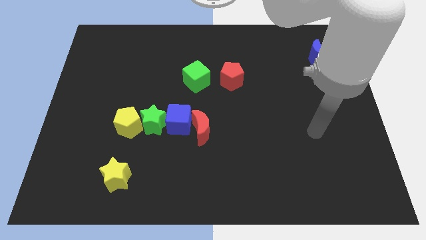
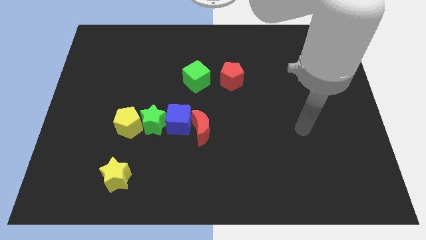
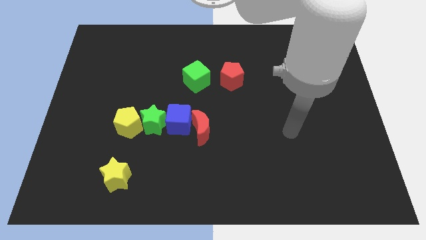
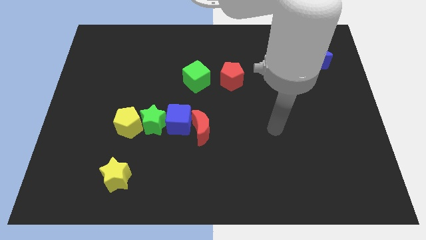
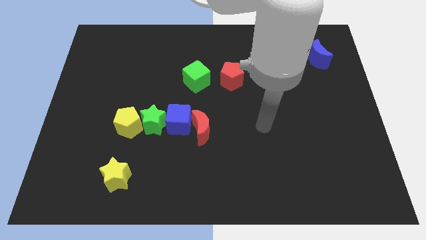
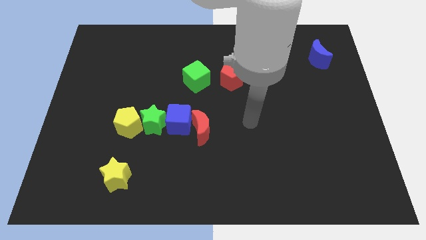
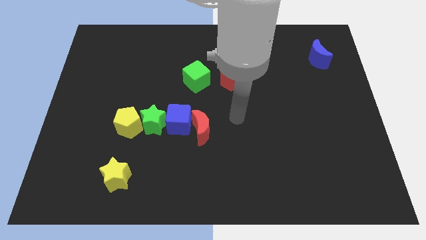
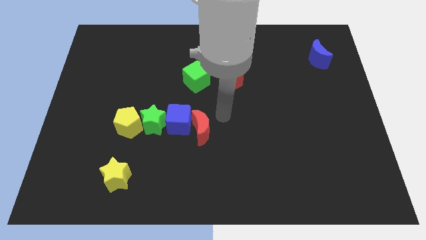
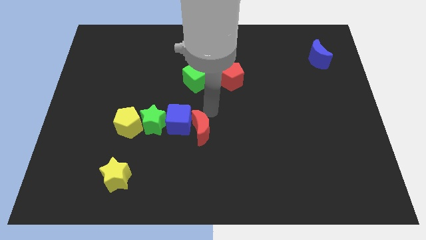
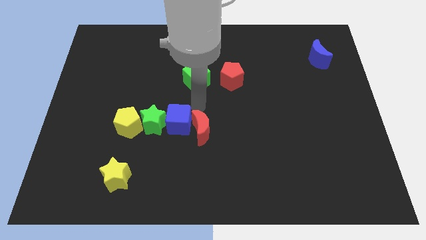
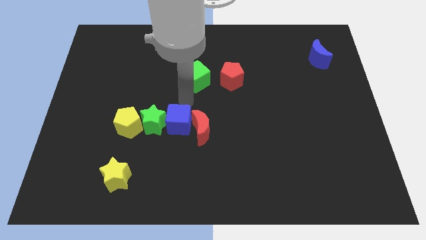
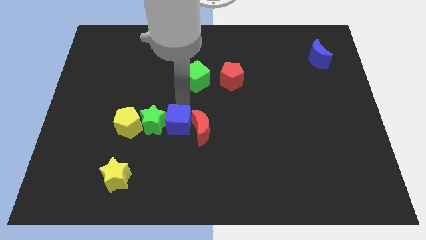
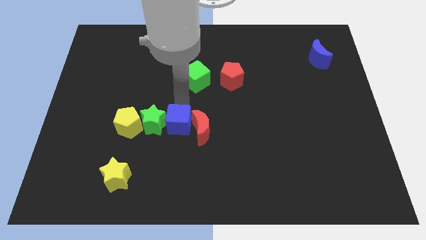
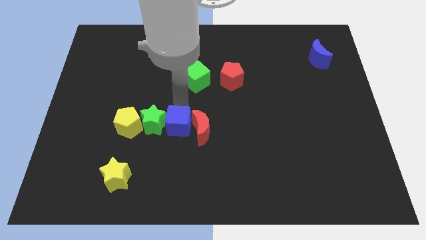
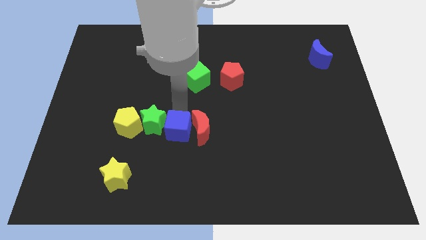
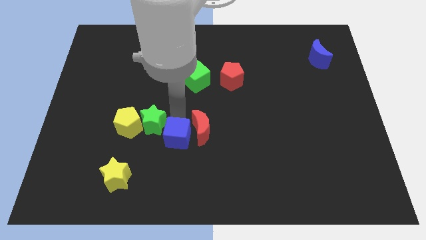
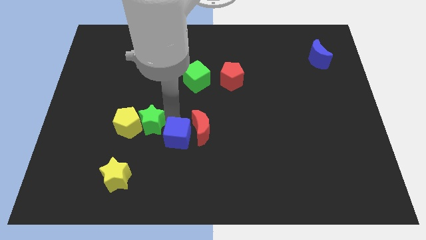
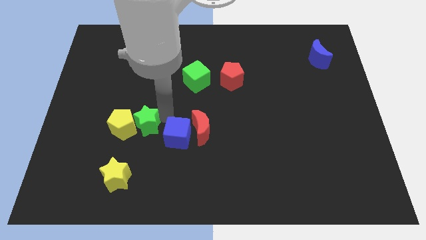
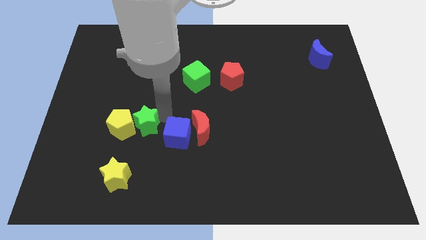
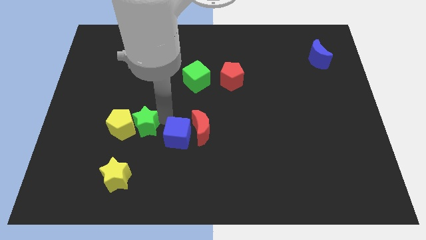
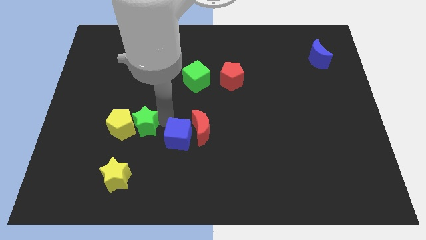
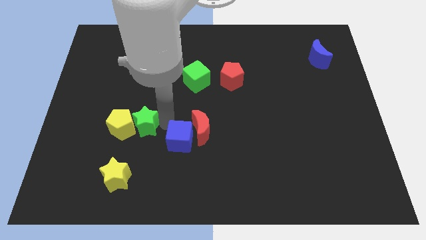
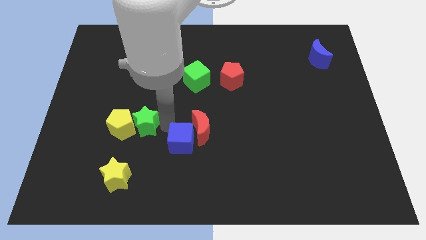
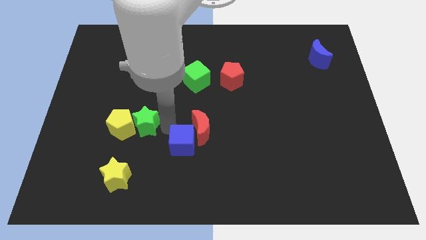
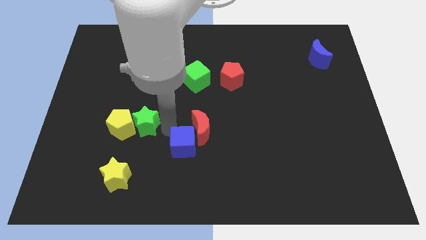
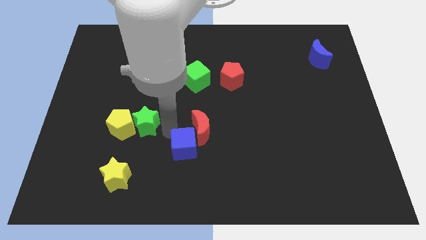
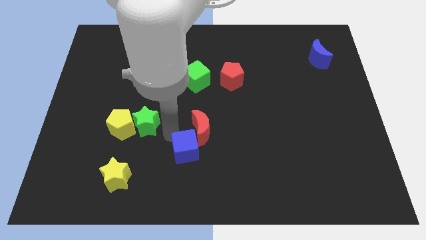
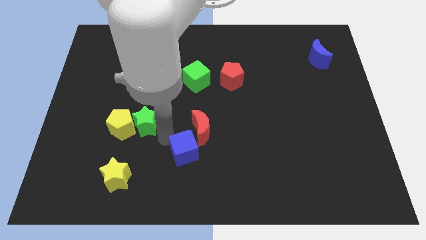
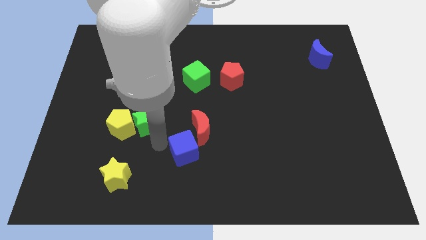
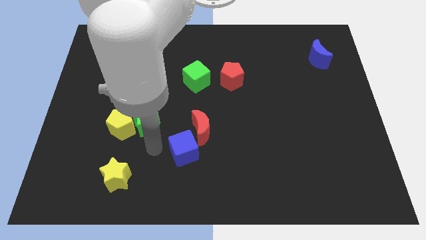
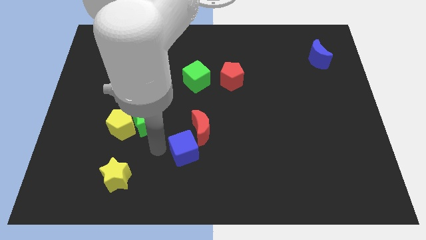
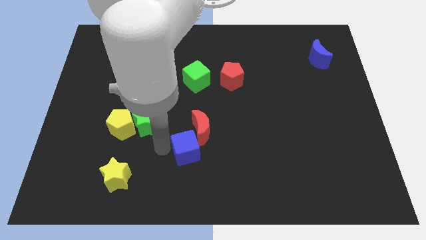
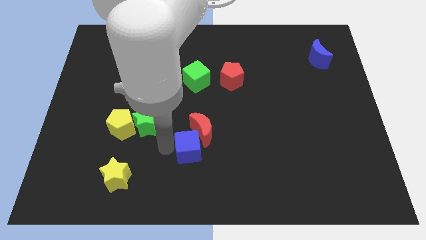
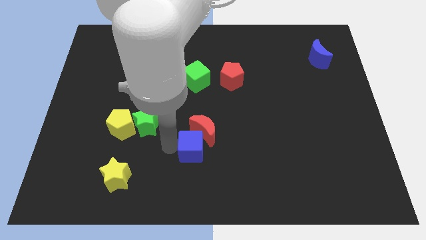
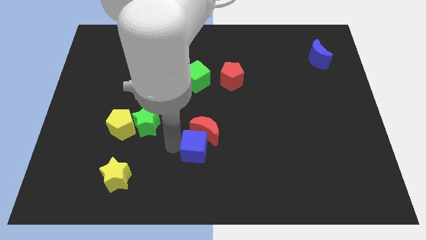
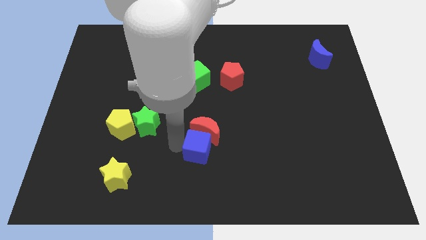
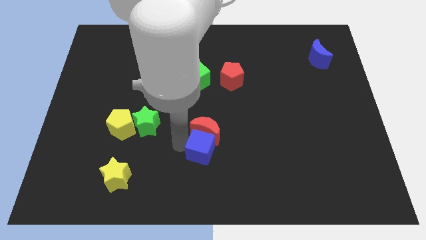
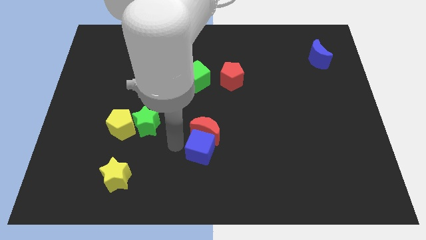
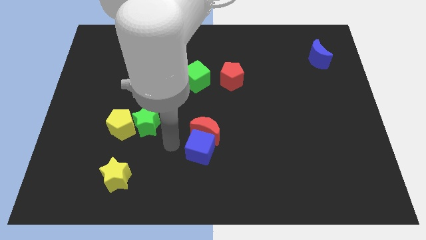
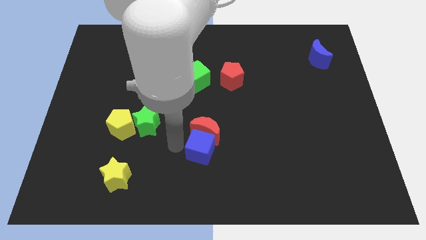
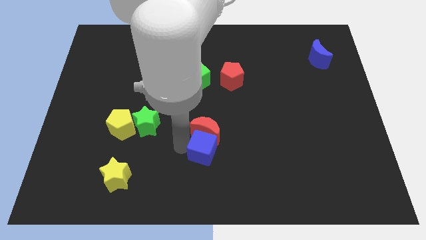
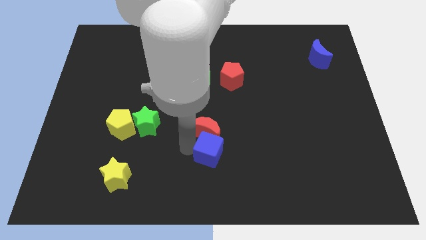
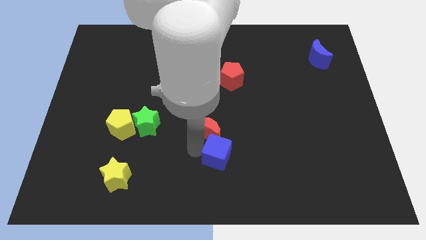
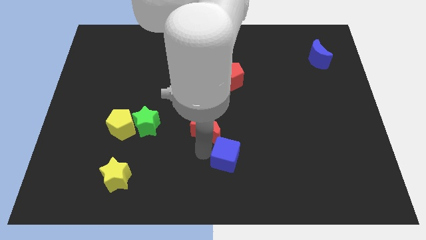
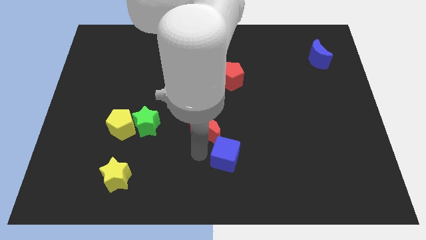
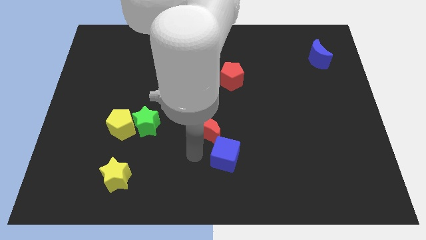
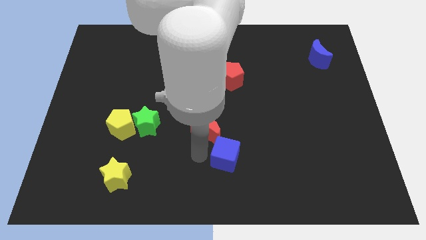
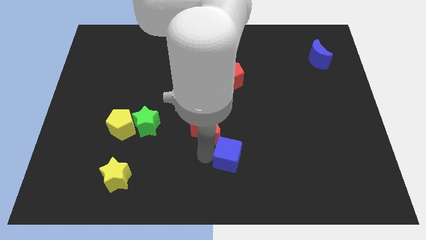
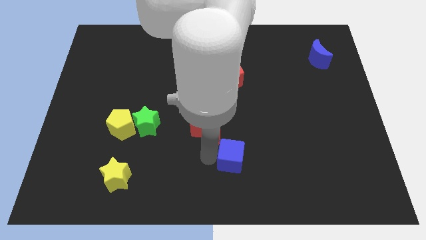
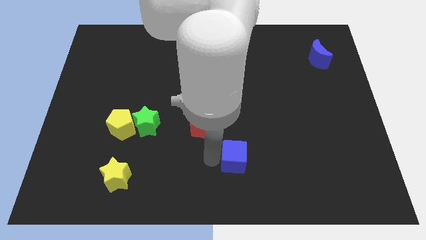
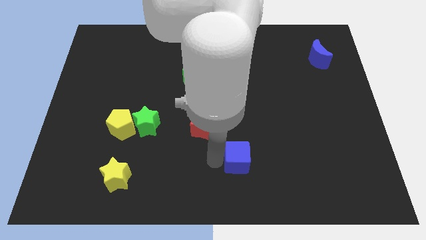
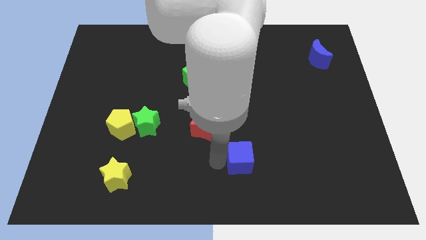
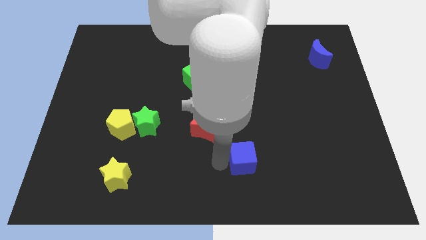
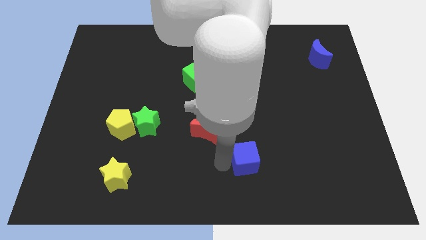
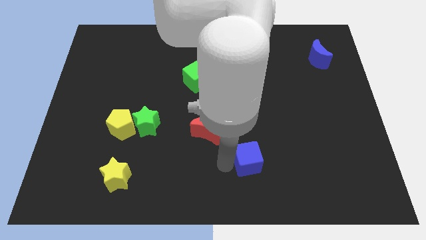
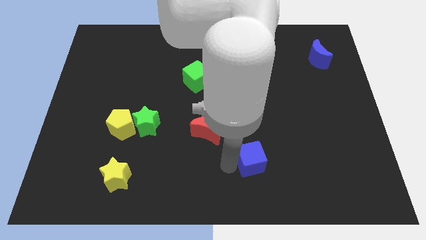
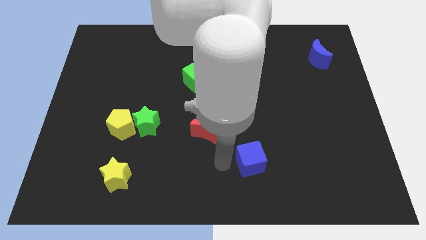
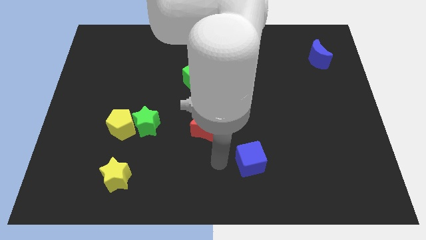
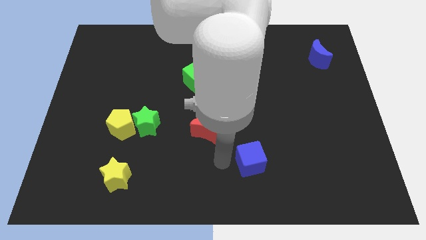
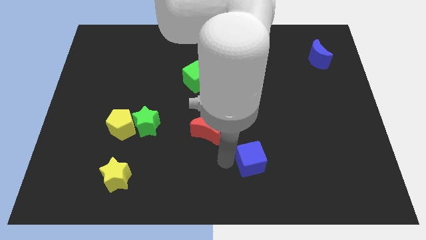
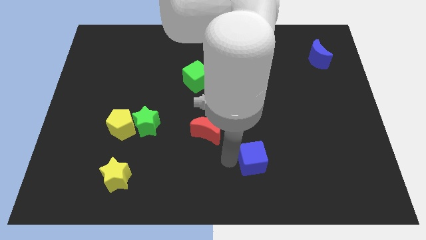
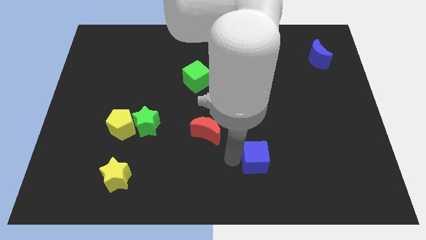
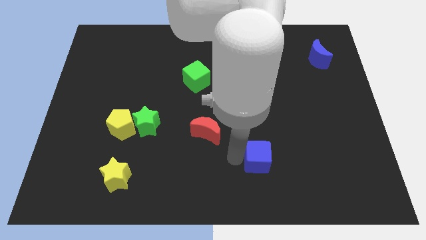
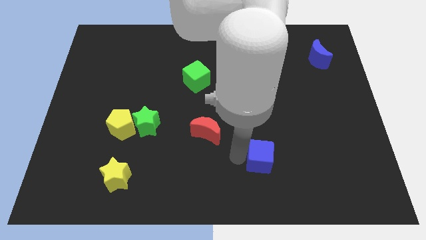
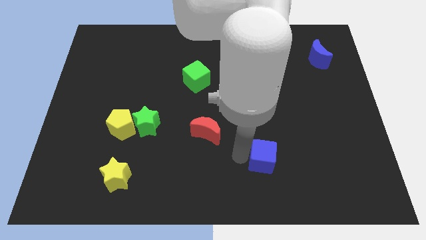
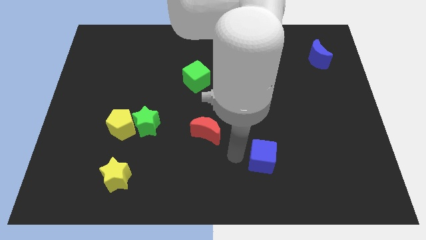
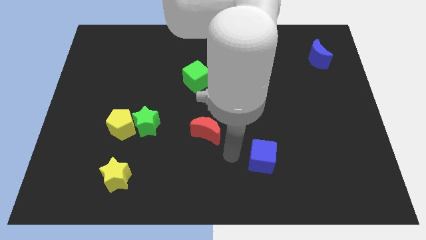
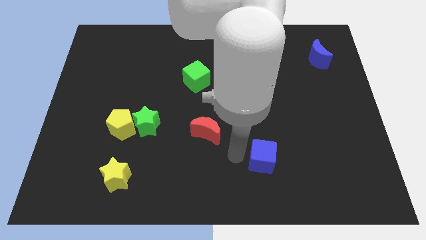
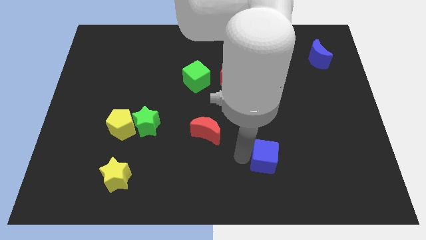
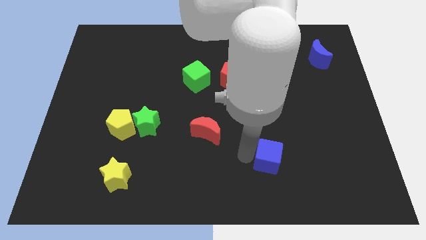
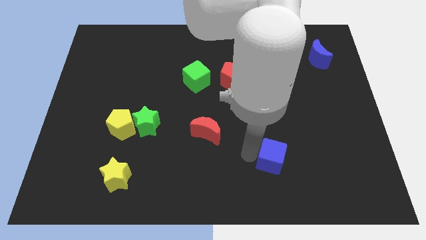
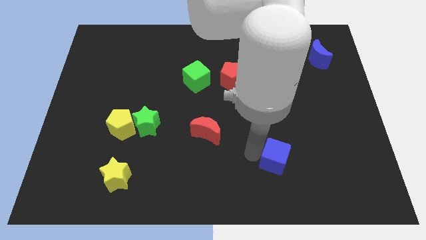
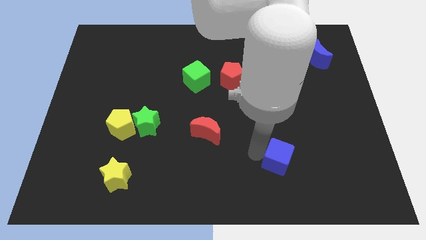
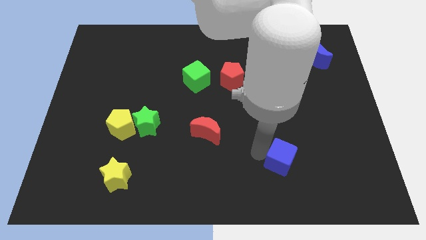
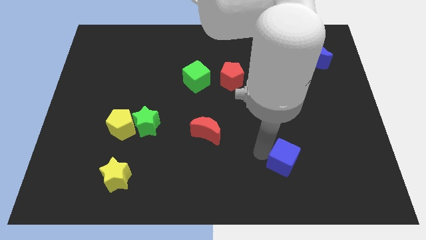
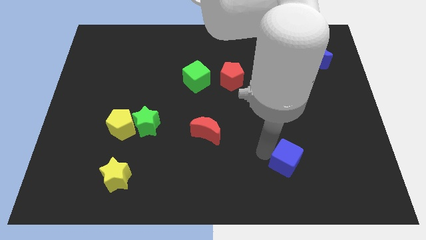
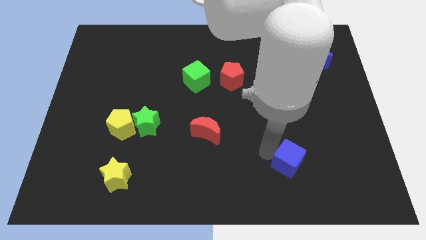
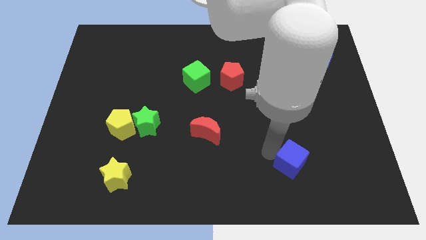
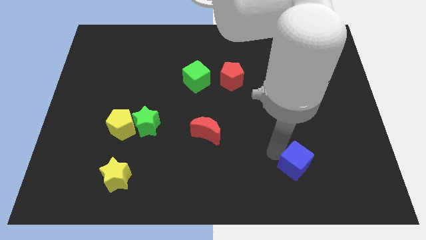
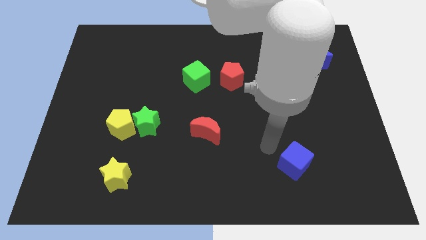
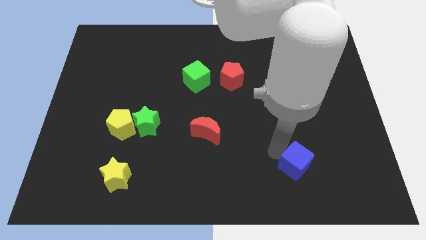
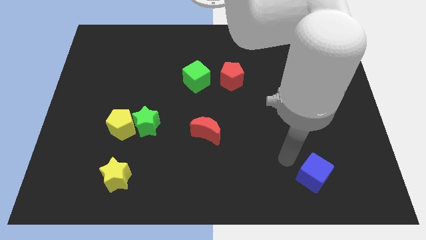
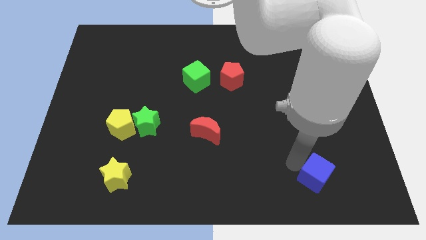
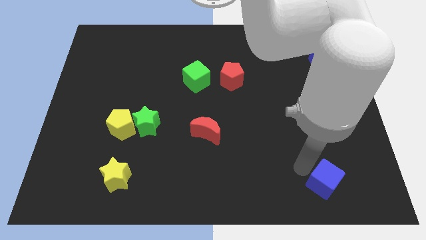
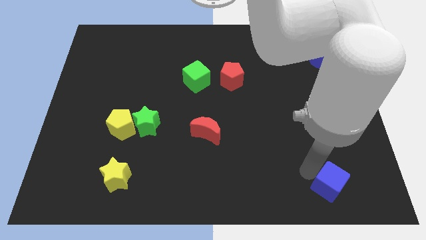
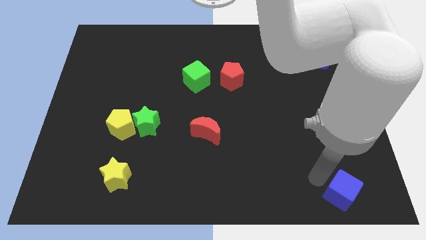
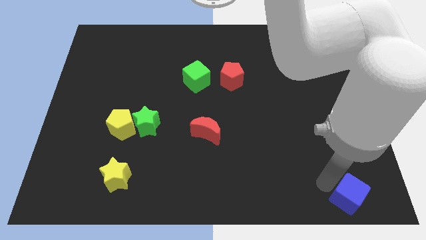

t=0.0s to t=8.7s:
slide the blue cube to the lower right corner
